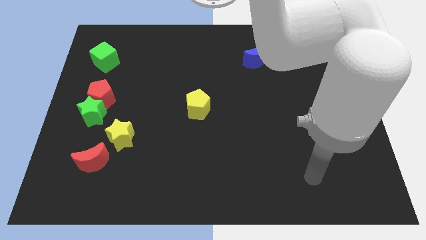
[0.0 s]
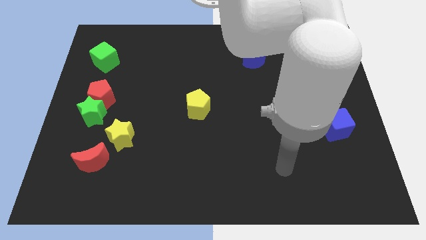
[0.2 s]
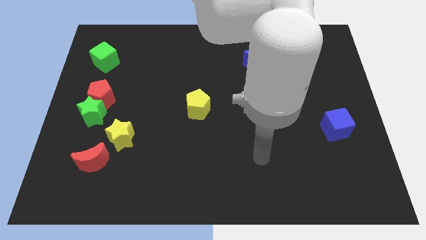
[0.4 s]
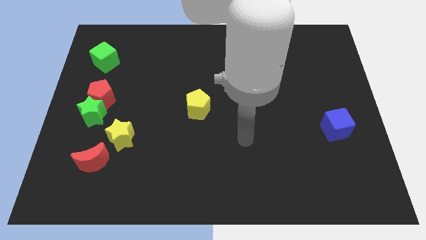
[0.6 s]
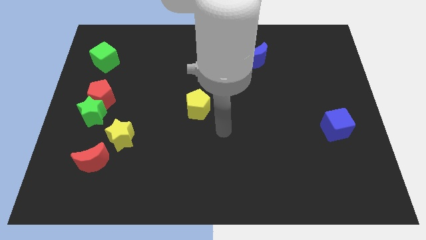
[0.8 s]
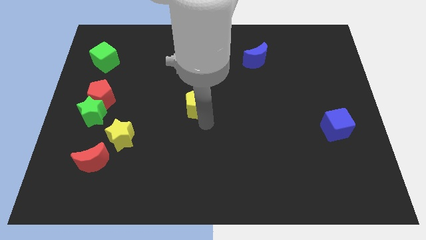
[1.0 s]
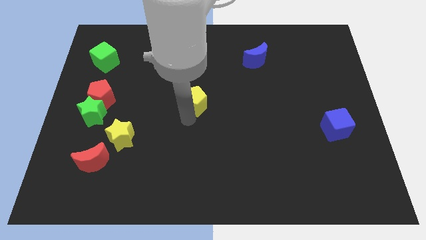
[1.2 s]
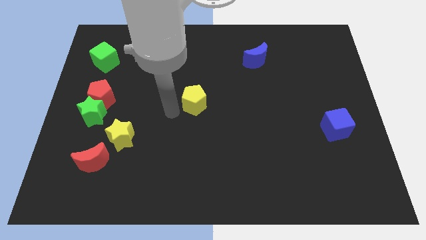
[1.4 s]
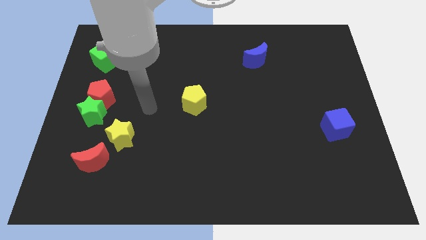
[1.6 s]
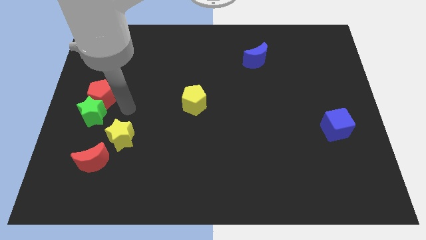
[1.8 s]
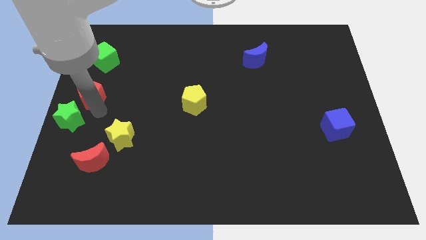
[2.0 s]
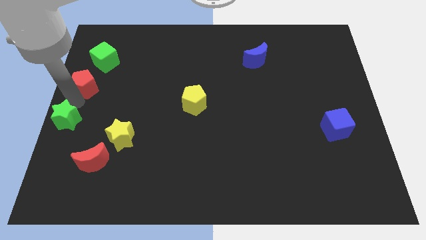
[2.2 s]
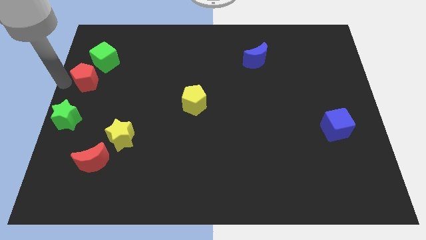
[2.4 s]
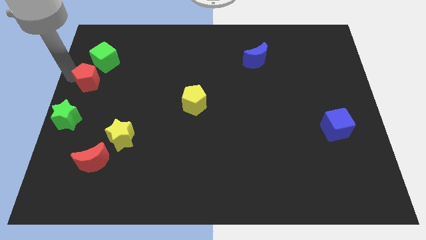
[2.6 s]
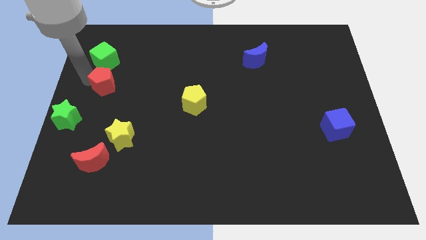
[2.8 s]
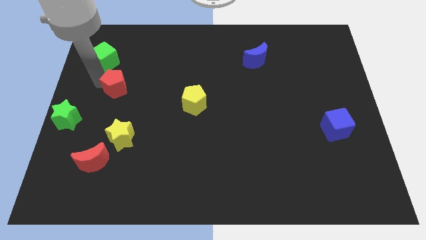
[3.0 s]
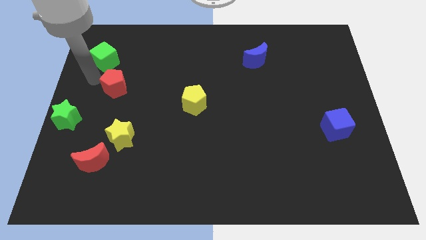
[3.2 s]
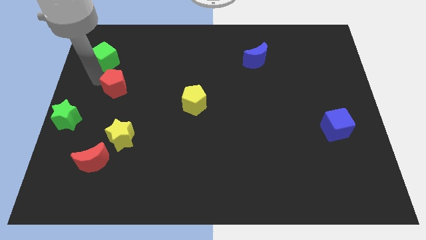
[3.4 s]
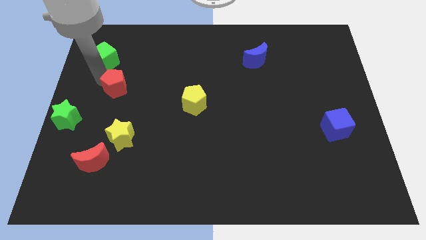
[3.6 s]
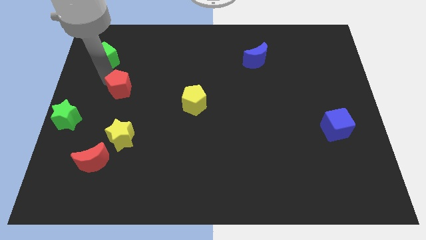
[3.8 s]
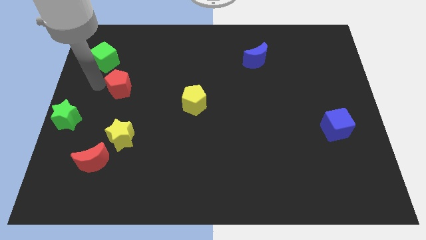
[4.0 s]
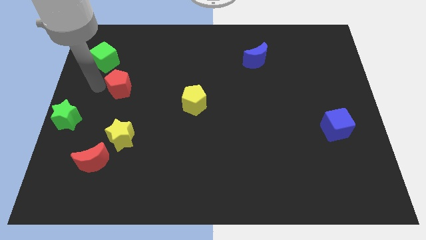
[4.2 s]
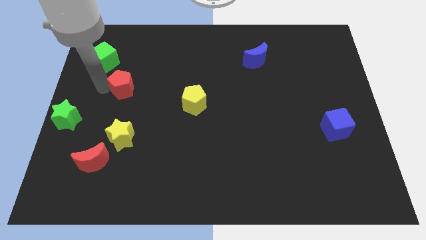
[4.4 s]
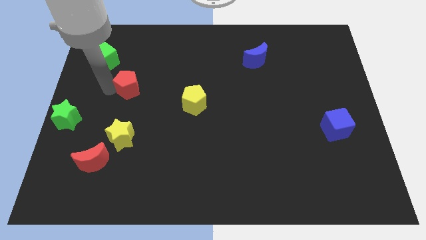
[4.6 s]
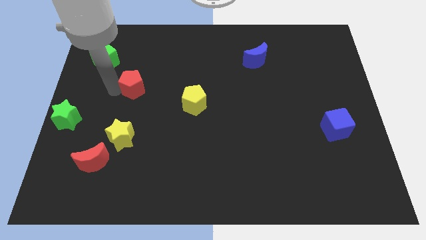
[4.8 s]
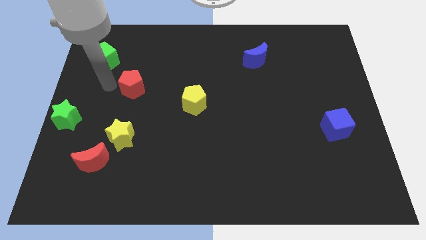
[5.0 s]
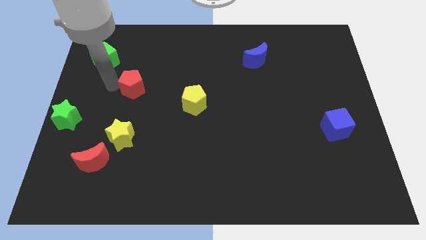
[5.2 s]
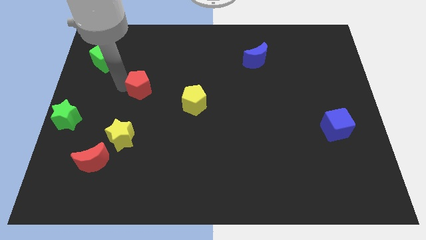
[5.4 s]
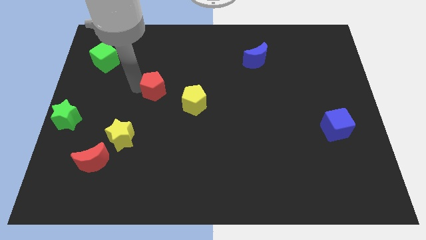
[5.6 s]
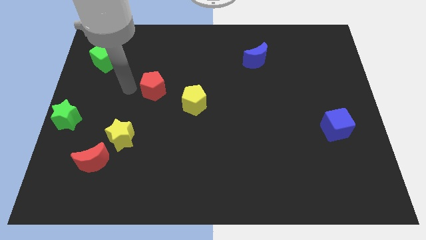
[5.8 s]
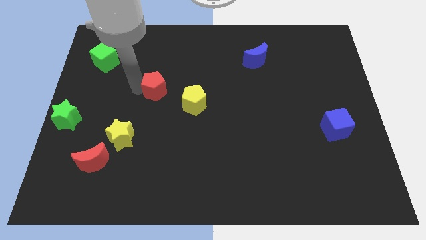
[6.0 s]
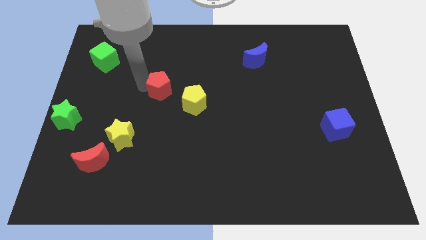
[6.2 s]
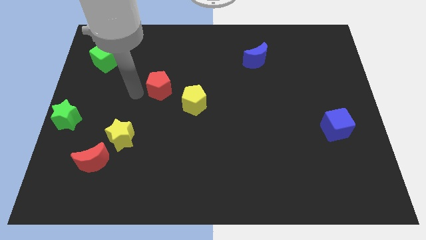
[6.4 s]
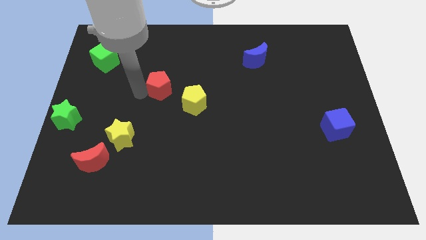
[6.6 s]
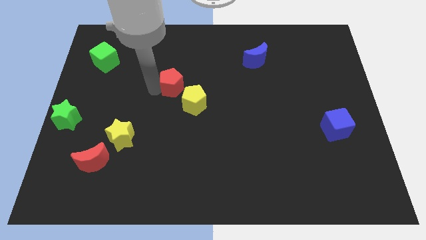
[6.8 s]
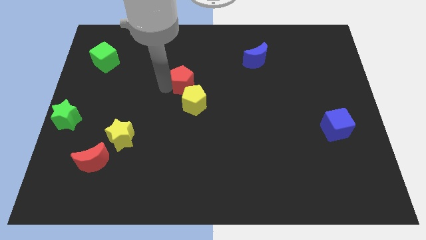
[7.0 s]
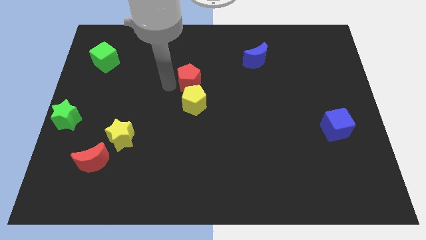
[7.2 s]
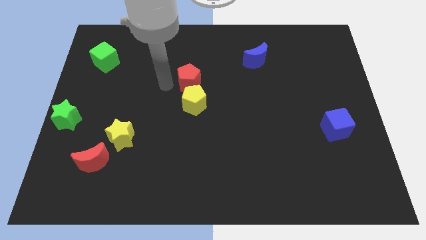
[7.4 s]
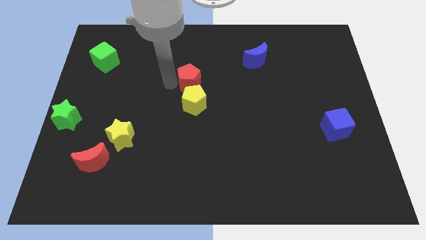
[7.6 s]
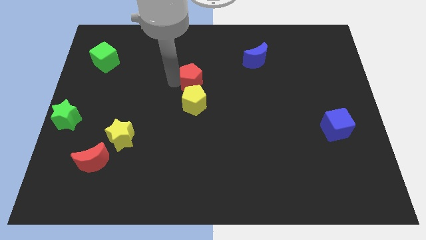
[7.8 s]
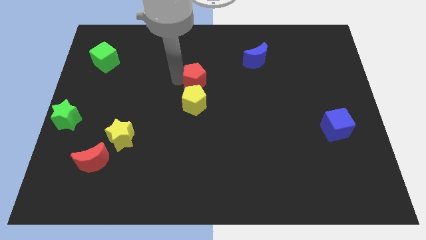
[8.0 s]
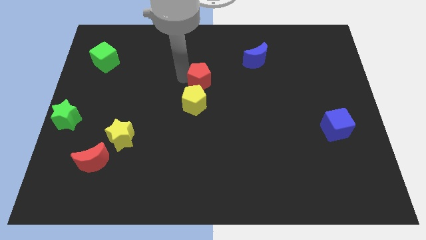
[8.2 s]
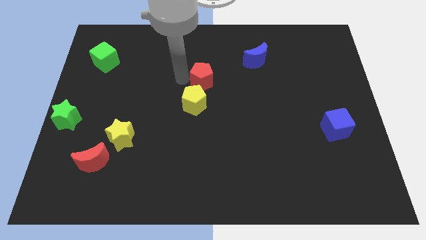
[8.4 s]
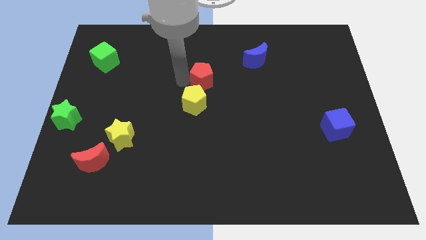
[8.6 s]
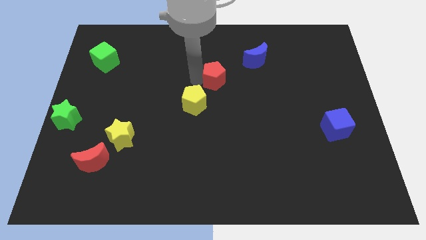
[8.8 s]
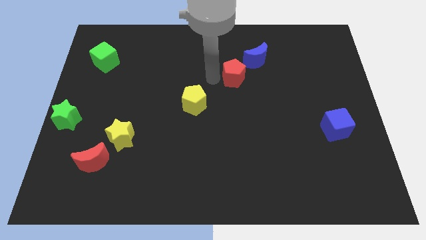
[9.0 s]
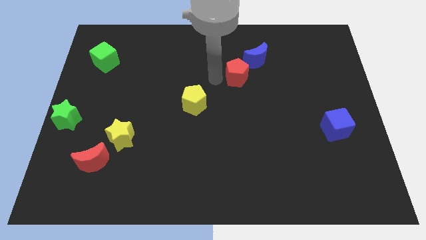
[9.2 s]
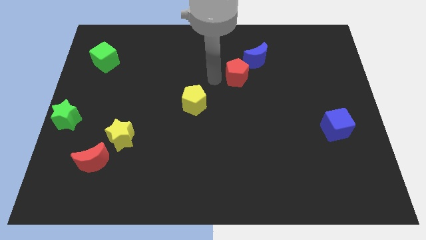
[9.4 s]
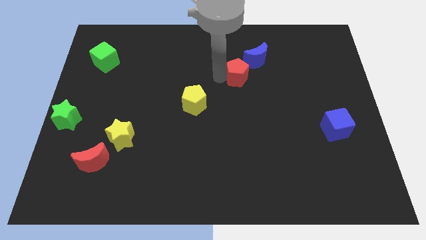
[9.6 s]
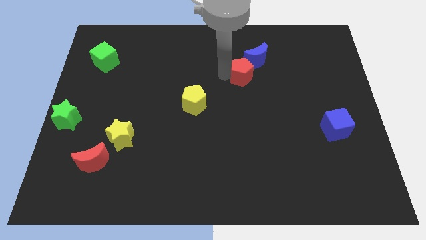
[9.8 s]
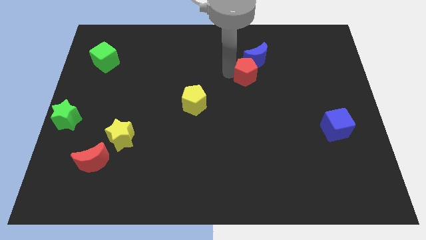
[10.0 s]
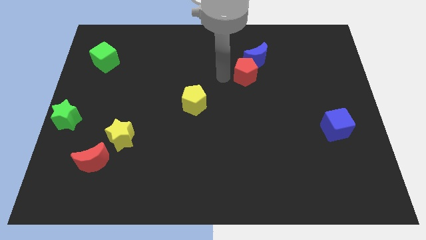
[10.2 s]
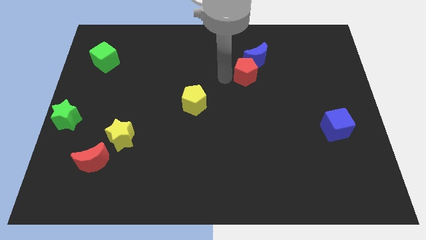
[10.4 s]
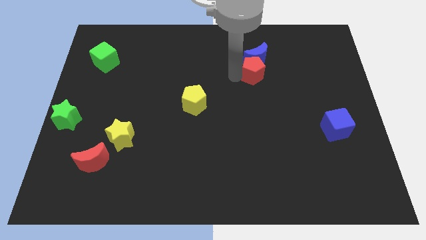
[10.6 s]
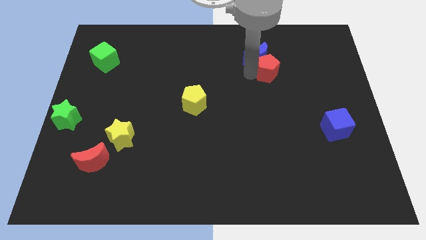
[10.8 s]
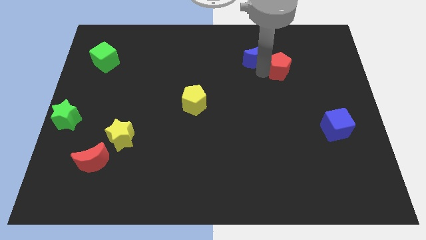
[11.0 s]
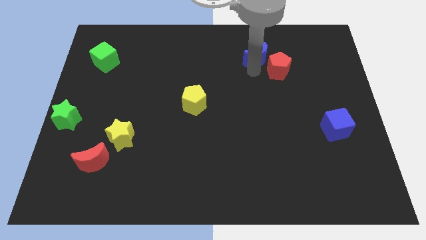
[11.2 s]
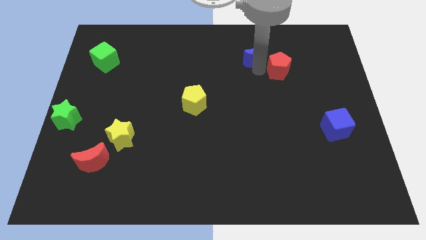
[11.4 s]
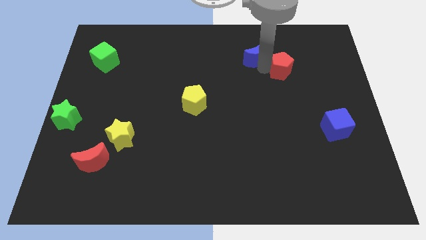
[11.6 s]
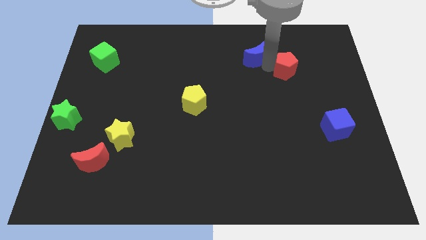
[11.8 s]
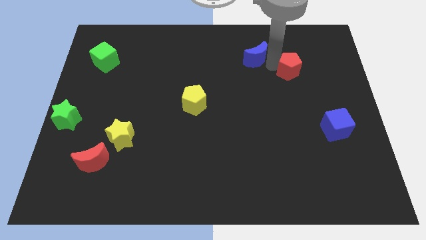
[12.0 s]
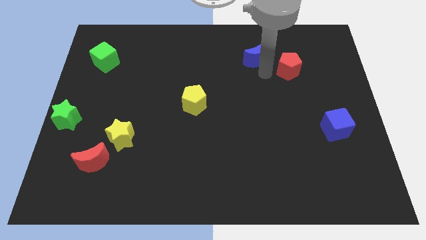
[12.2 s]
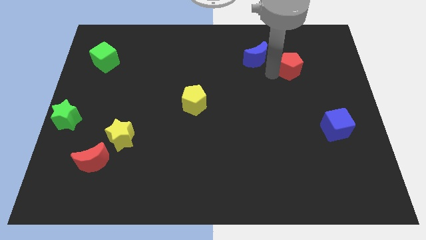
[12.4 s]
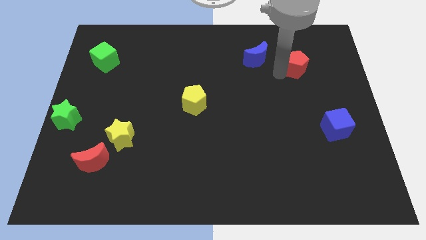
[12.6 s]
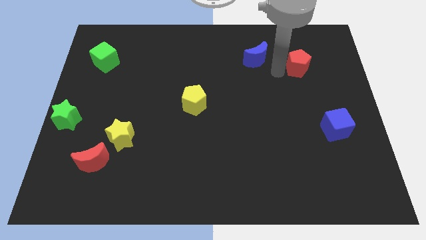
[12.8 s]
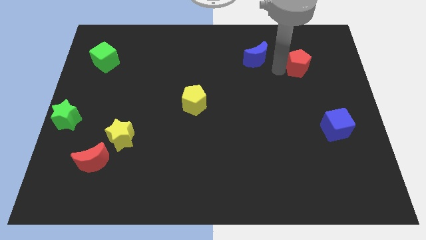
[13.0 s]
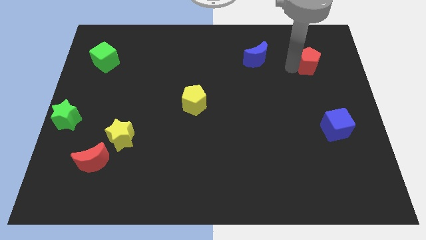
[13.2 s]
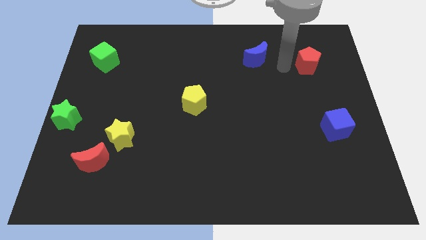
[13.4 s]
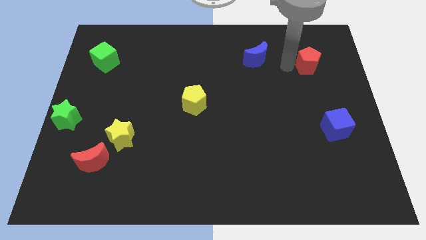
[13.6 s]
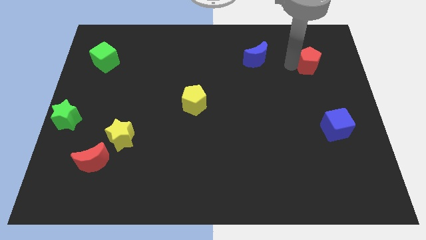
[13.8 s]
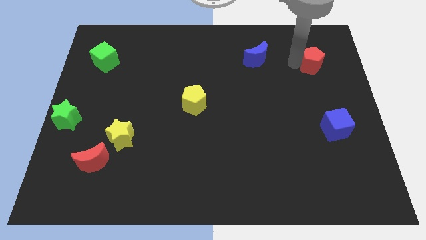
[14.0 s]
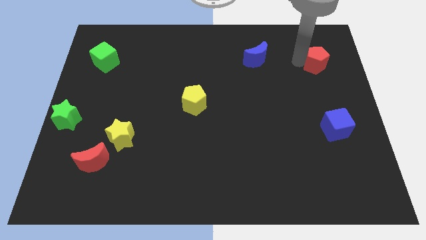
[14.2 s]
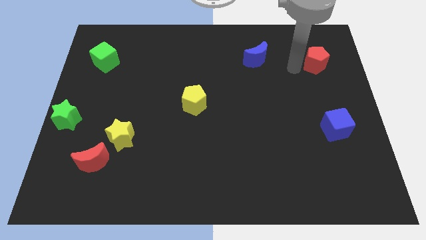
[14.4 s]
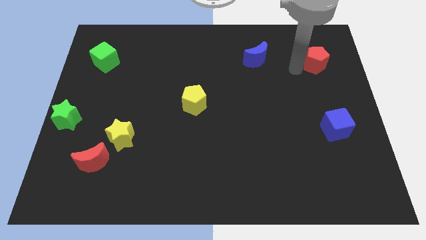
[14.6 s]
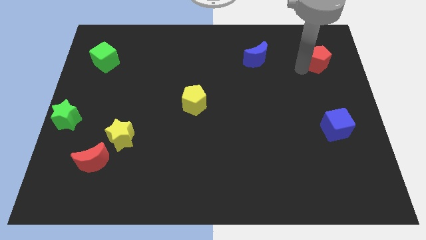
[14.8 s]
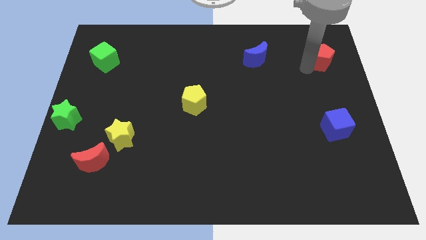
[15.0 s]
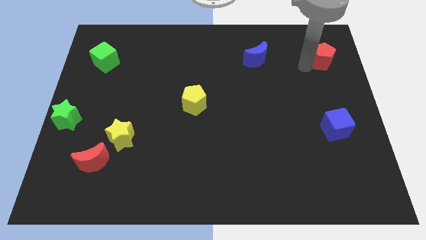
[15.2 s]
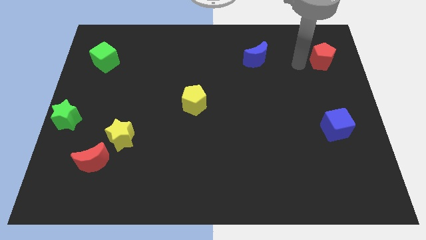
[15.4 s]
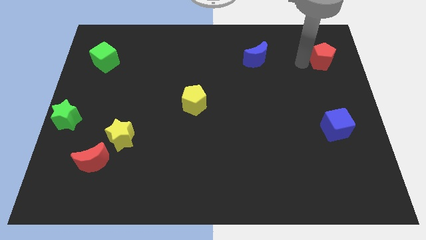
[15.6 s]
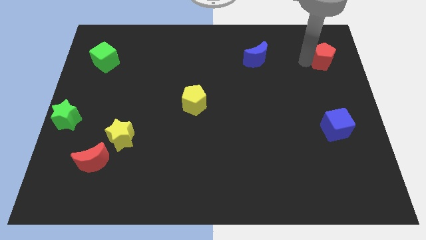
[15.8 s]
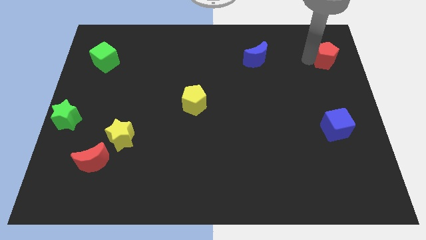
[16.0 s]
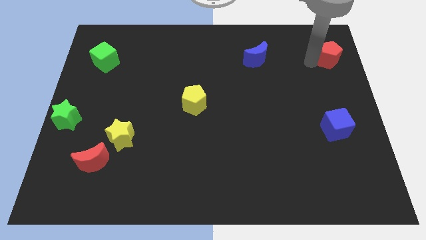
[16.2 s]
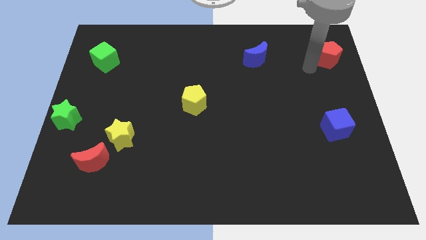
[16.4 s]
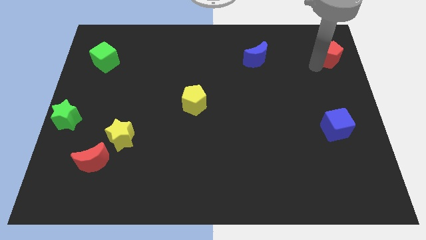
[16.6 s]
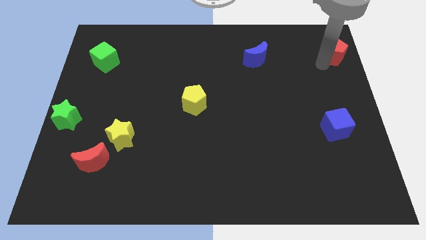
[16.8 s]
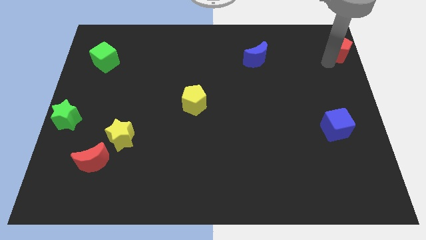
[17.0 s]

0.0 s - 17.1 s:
slide the red pentagon to the top right of the board
